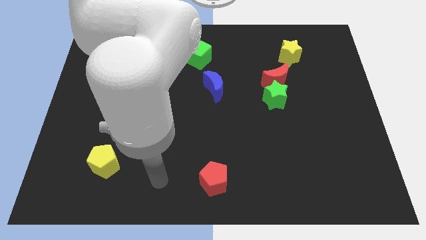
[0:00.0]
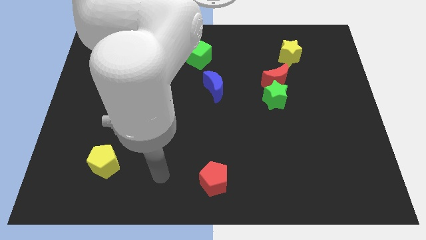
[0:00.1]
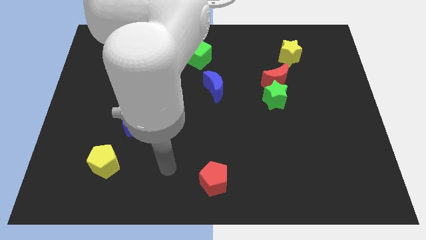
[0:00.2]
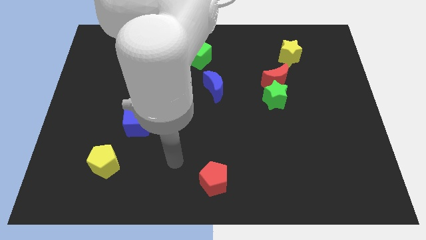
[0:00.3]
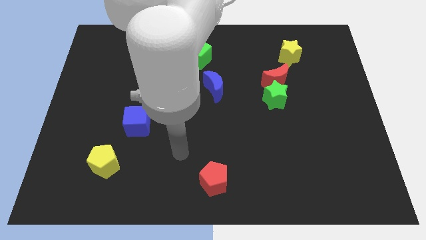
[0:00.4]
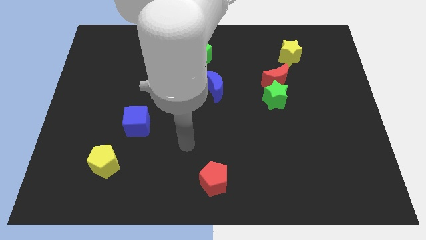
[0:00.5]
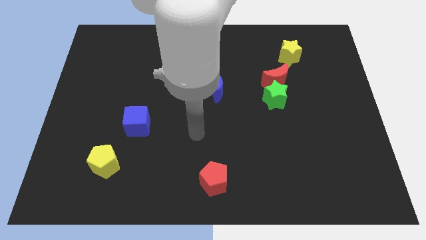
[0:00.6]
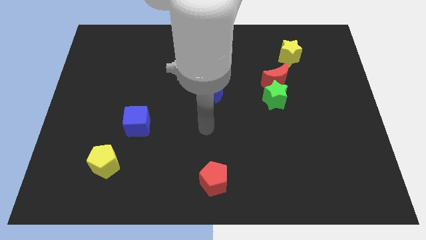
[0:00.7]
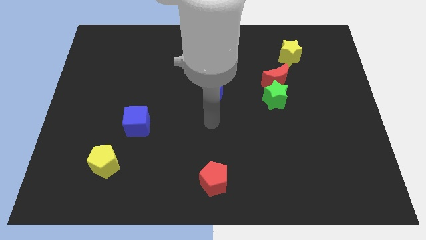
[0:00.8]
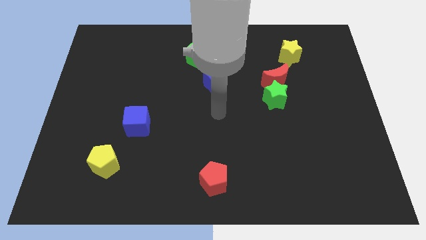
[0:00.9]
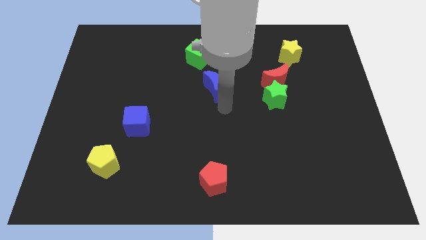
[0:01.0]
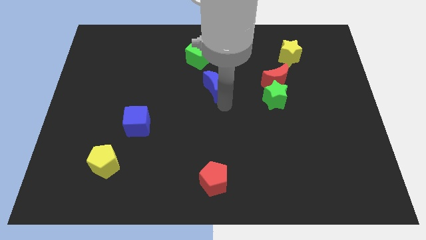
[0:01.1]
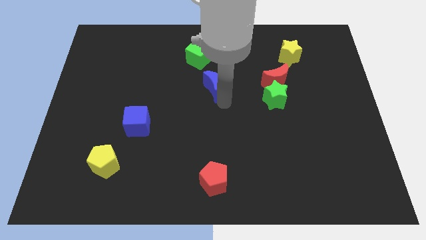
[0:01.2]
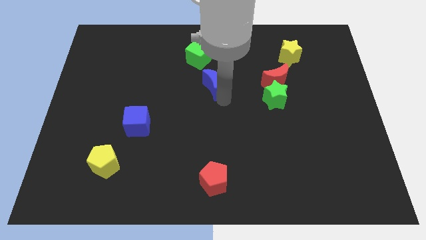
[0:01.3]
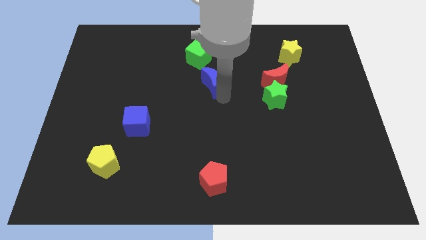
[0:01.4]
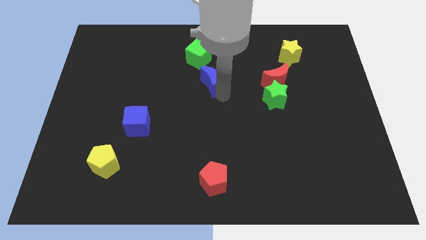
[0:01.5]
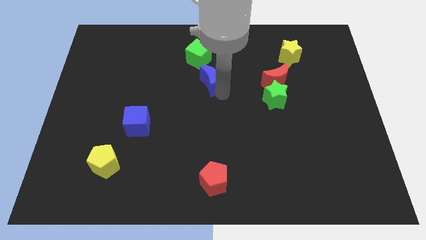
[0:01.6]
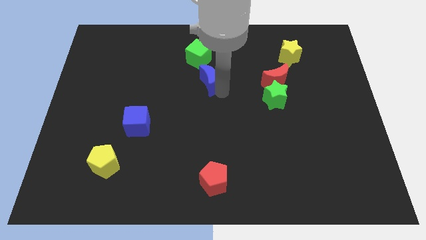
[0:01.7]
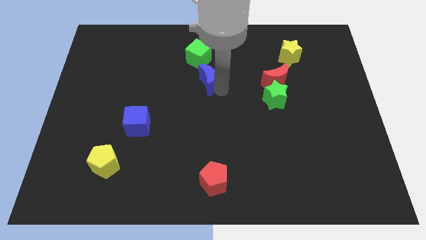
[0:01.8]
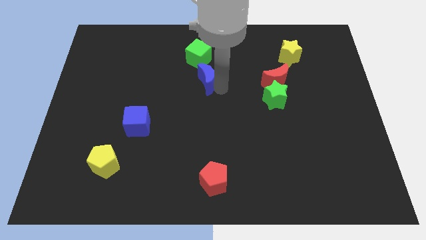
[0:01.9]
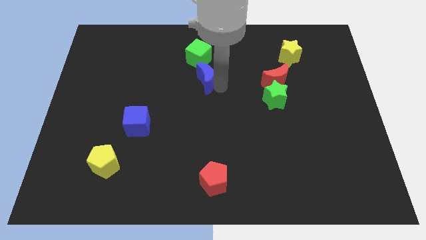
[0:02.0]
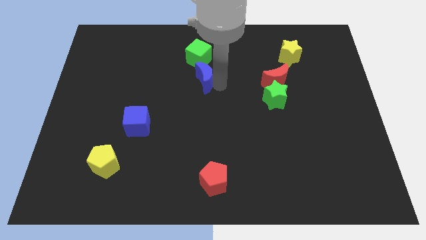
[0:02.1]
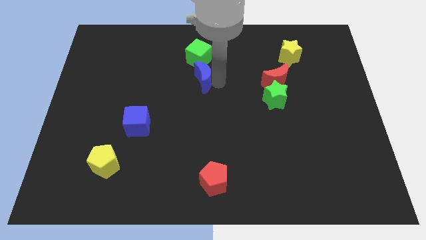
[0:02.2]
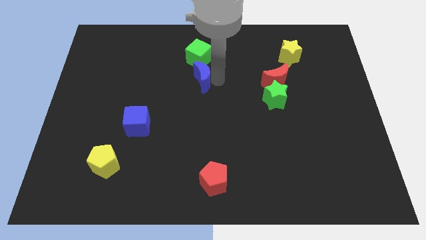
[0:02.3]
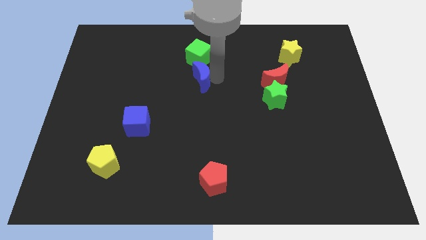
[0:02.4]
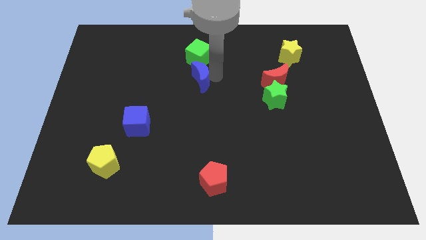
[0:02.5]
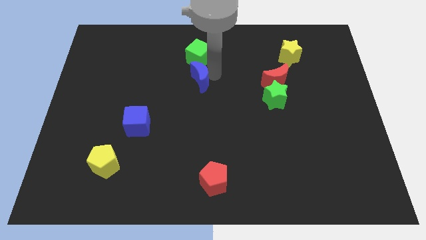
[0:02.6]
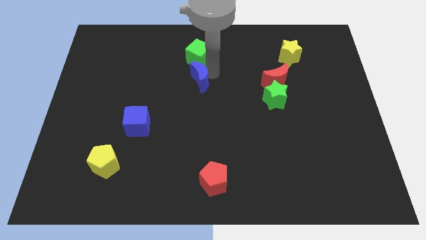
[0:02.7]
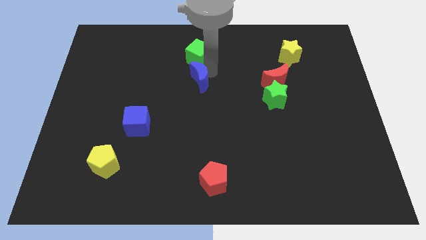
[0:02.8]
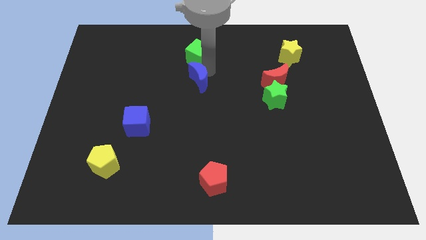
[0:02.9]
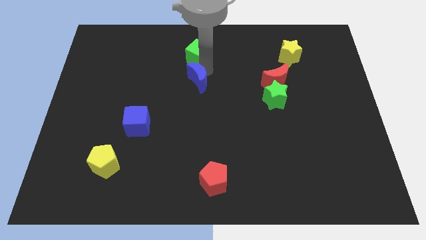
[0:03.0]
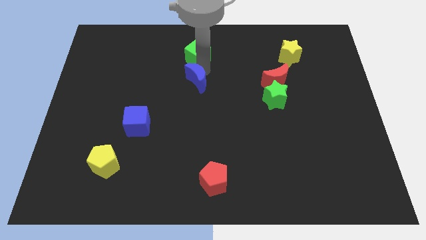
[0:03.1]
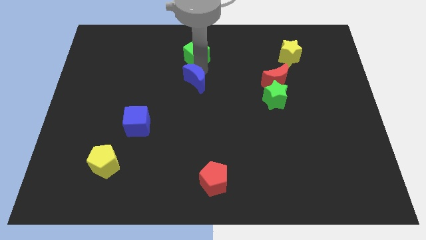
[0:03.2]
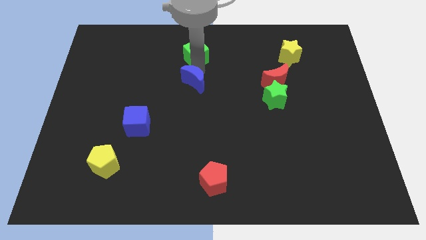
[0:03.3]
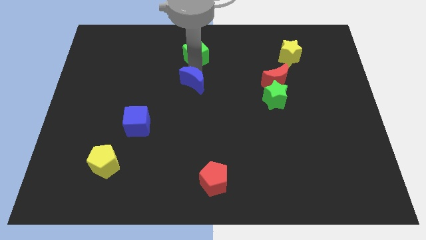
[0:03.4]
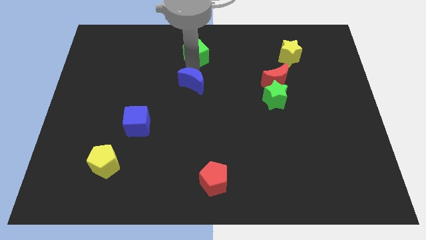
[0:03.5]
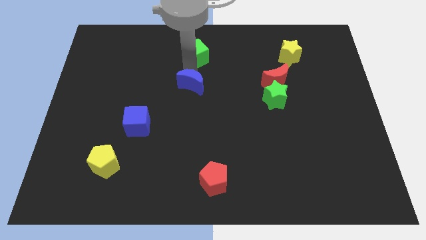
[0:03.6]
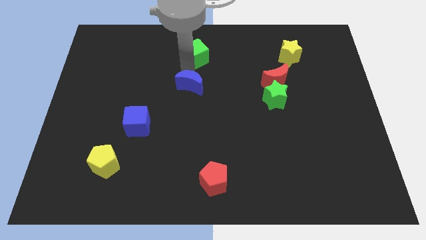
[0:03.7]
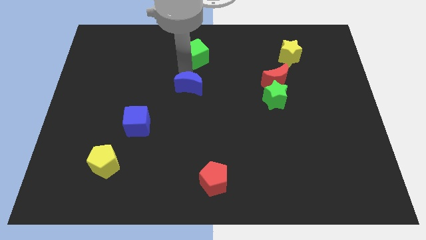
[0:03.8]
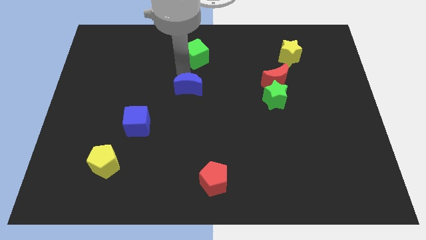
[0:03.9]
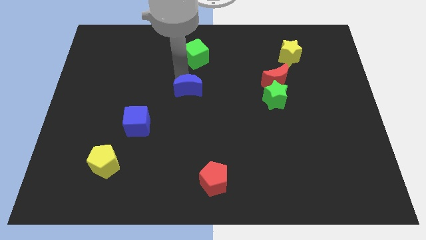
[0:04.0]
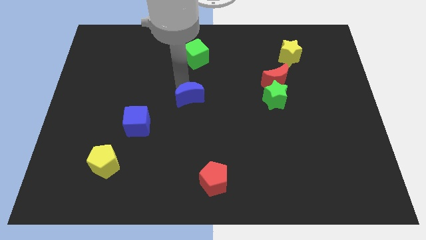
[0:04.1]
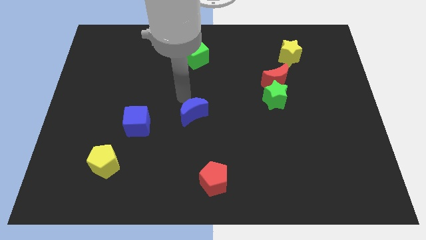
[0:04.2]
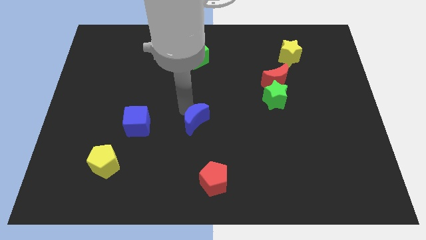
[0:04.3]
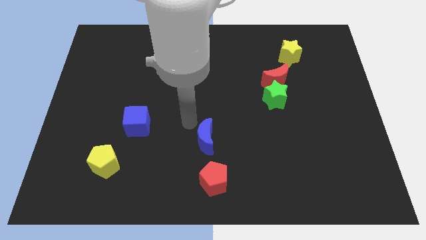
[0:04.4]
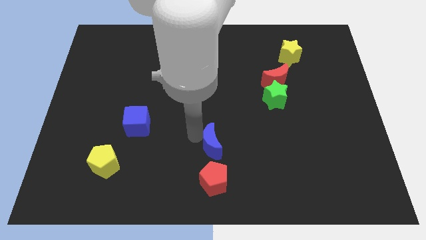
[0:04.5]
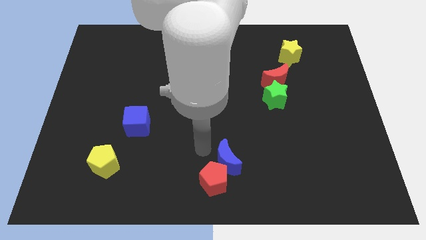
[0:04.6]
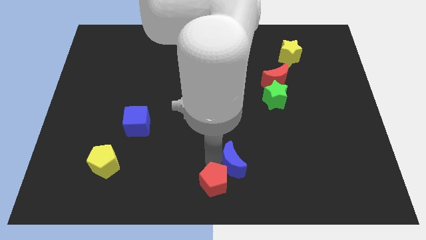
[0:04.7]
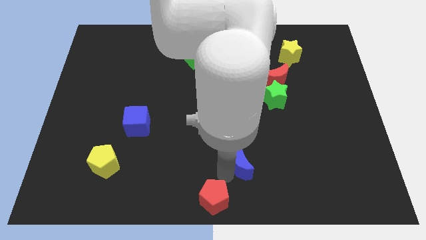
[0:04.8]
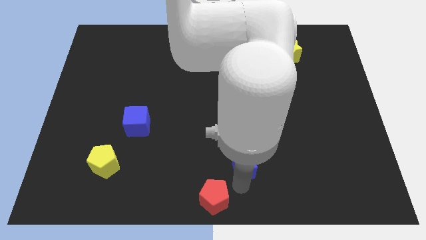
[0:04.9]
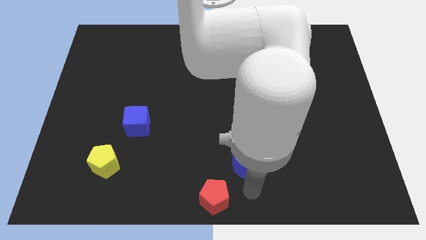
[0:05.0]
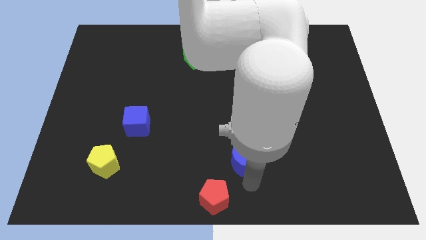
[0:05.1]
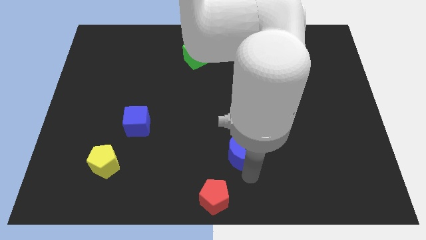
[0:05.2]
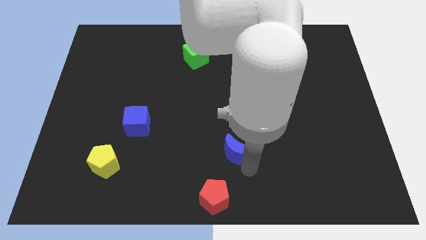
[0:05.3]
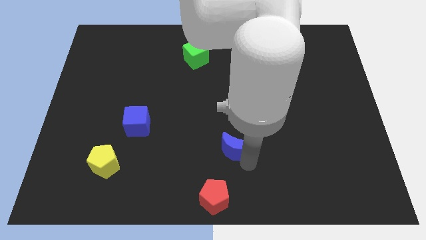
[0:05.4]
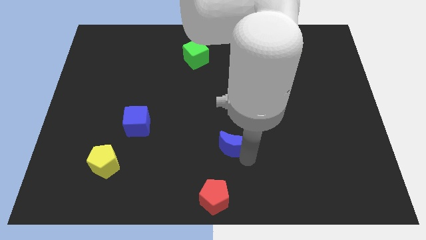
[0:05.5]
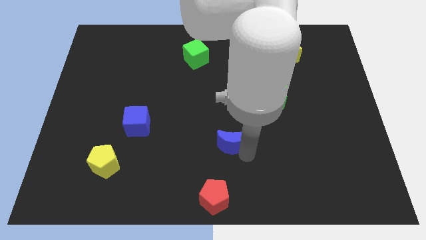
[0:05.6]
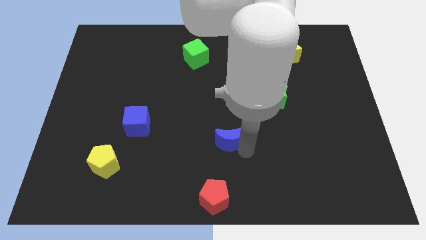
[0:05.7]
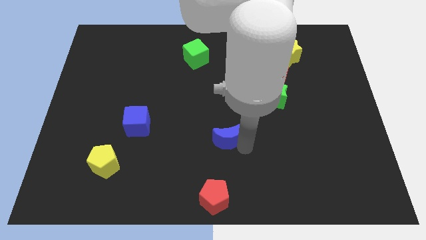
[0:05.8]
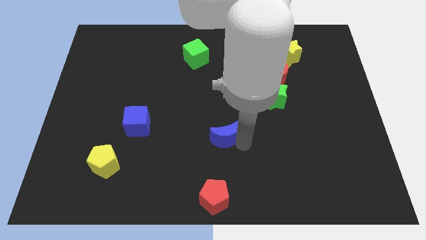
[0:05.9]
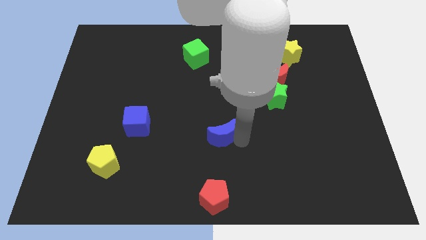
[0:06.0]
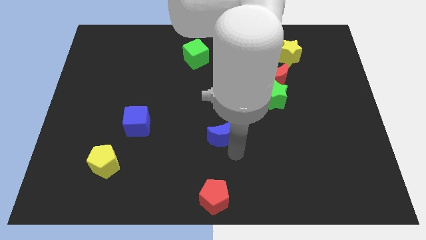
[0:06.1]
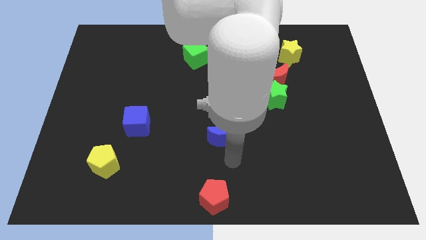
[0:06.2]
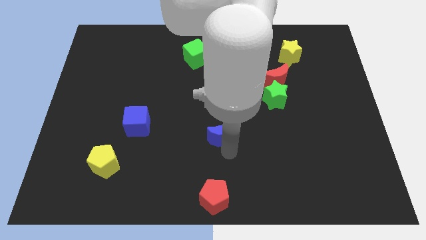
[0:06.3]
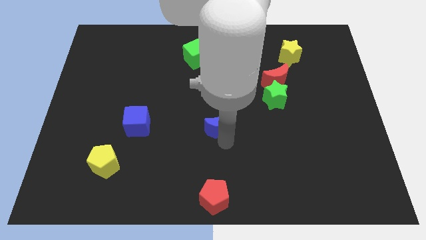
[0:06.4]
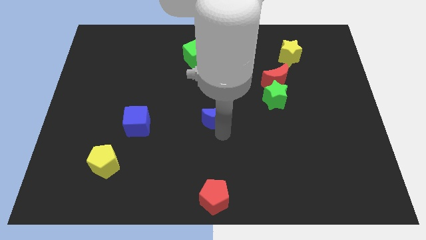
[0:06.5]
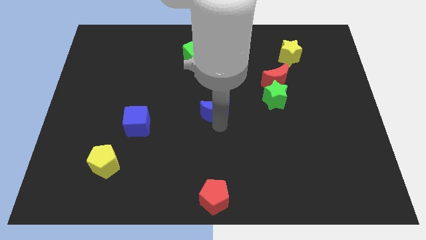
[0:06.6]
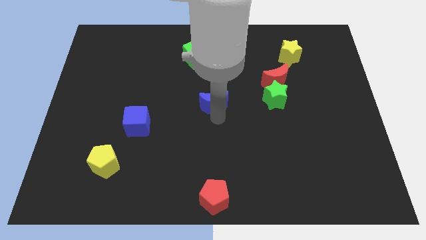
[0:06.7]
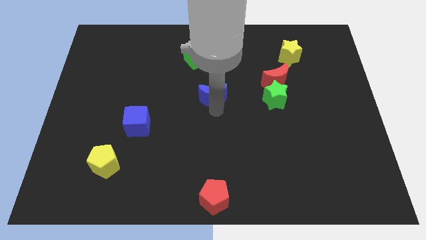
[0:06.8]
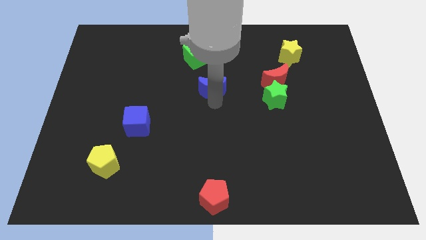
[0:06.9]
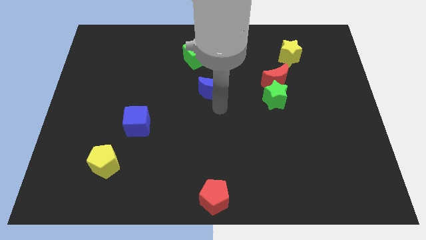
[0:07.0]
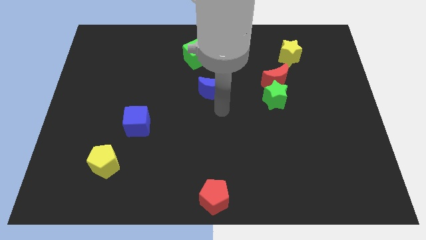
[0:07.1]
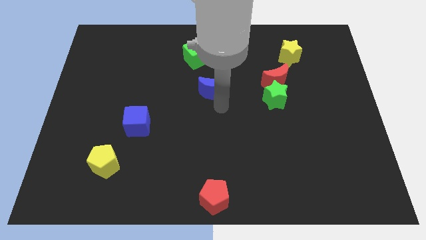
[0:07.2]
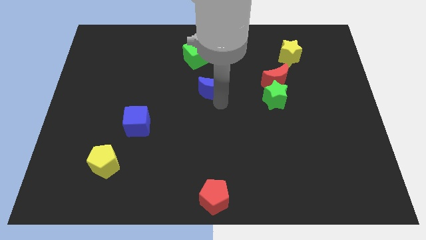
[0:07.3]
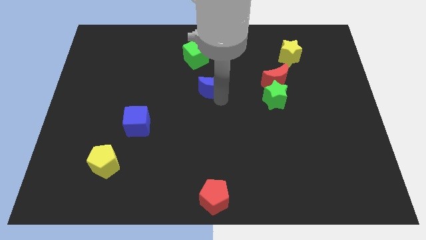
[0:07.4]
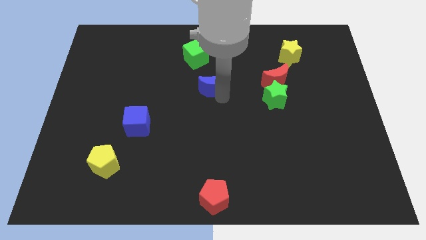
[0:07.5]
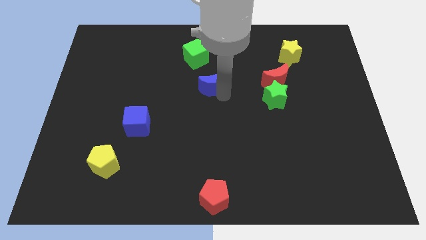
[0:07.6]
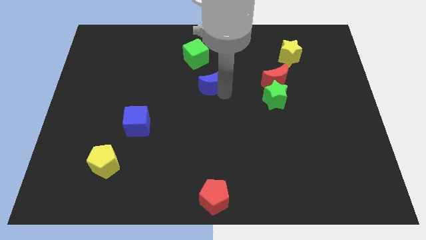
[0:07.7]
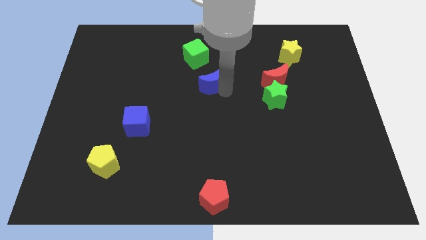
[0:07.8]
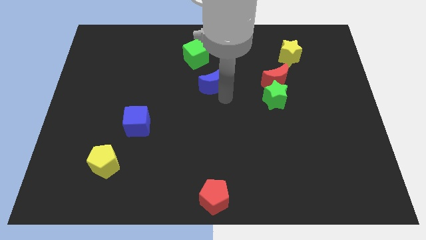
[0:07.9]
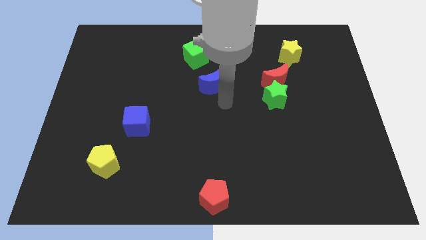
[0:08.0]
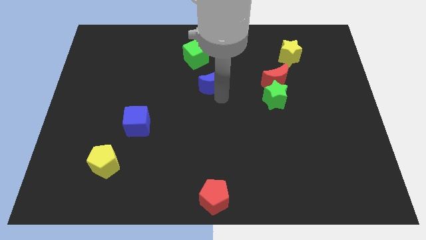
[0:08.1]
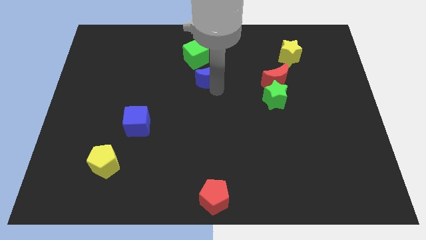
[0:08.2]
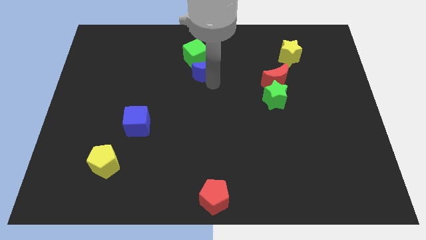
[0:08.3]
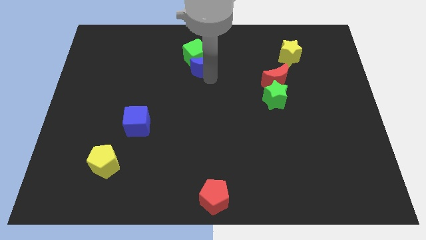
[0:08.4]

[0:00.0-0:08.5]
put the blue moon next to the green cube
